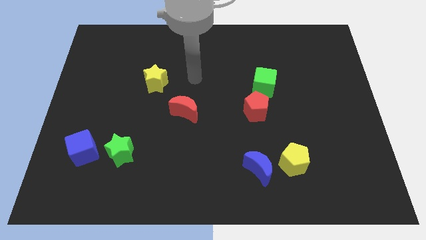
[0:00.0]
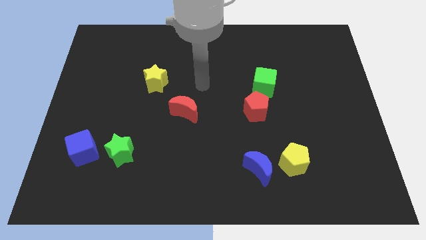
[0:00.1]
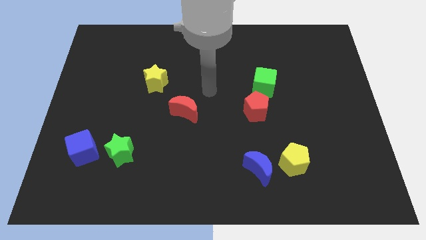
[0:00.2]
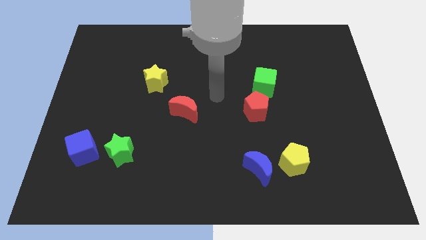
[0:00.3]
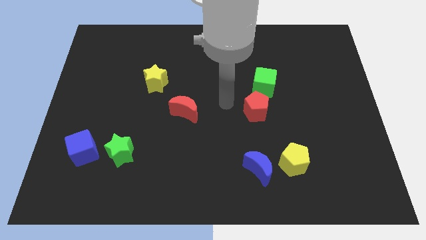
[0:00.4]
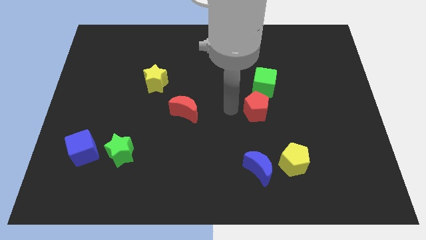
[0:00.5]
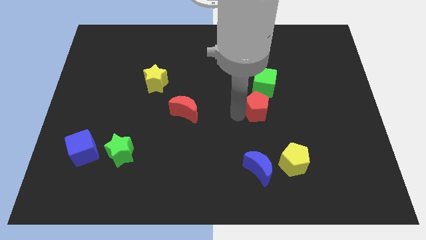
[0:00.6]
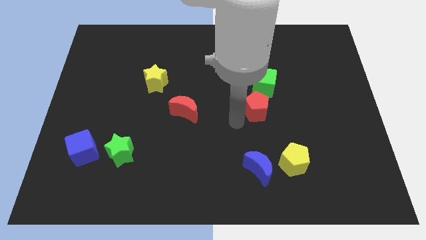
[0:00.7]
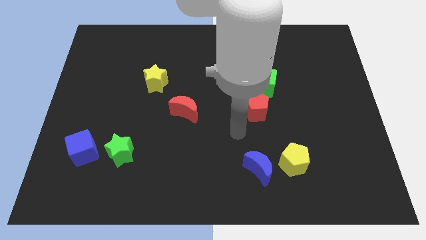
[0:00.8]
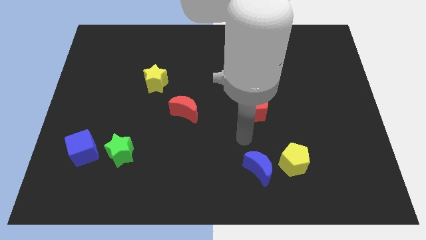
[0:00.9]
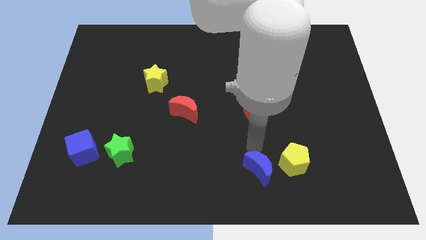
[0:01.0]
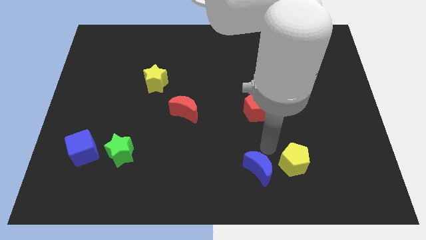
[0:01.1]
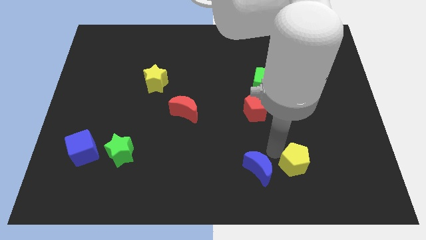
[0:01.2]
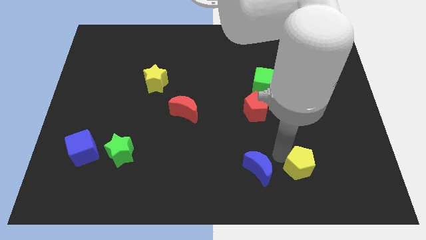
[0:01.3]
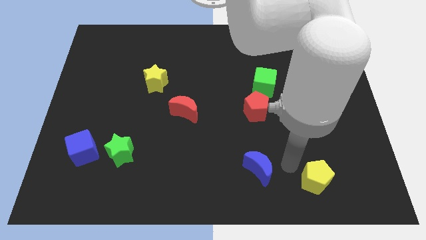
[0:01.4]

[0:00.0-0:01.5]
move the blue moon away from the yellow pentagon

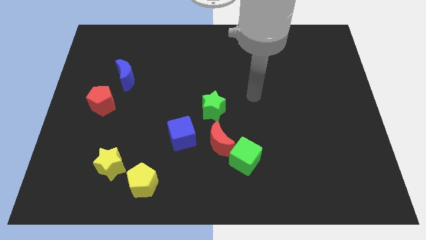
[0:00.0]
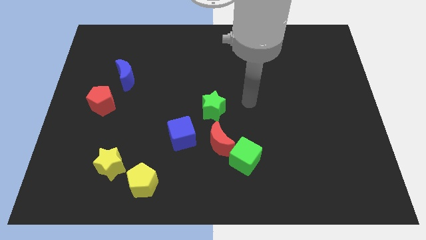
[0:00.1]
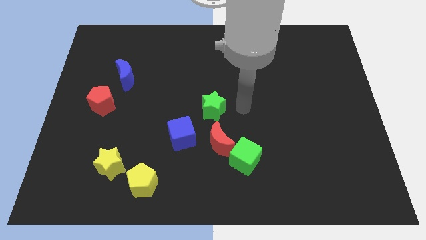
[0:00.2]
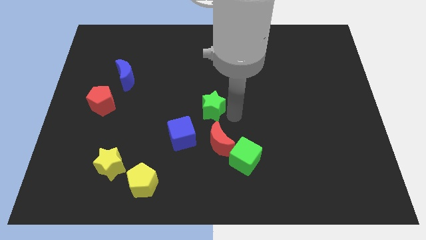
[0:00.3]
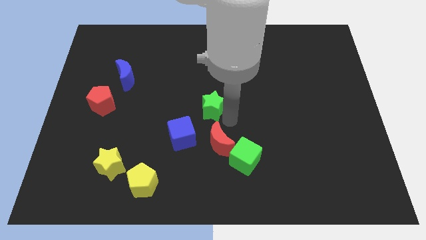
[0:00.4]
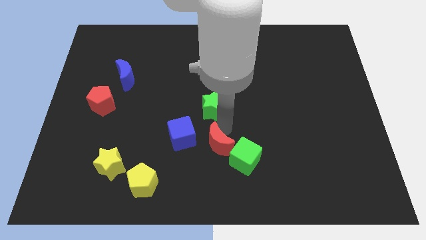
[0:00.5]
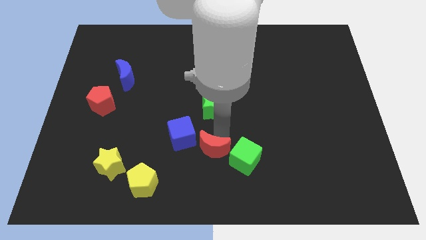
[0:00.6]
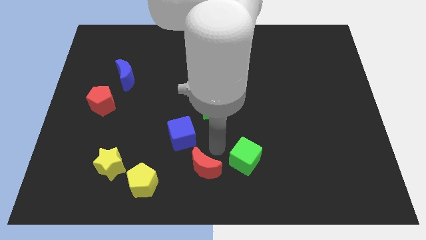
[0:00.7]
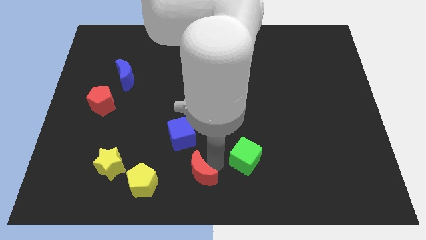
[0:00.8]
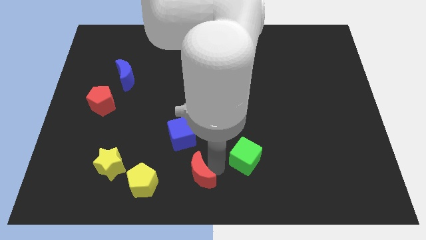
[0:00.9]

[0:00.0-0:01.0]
separate the green cube from the red moon

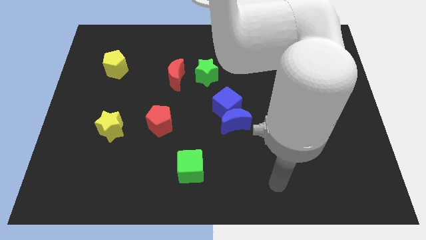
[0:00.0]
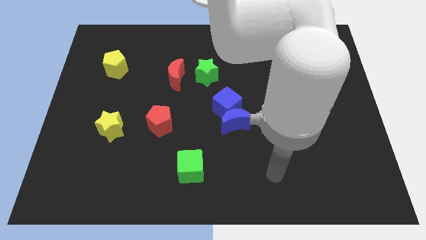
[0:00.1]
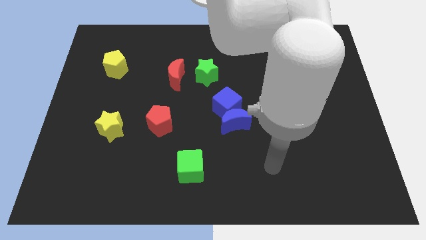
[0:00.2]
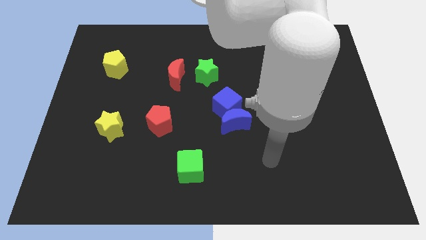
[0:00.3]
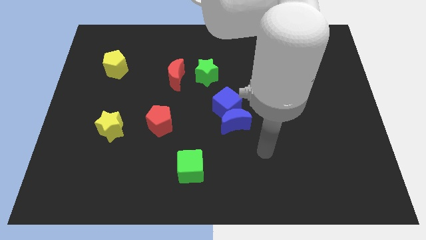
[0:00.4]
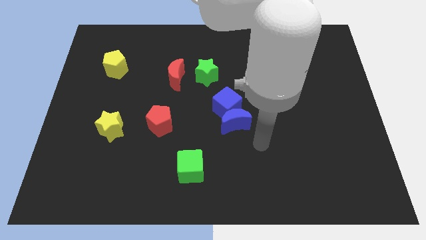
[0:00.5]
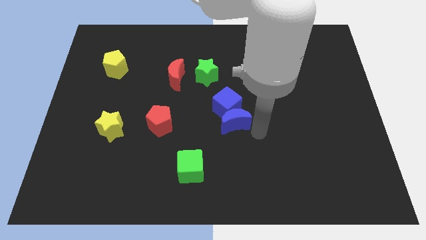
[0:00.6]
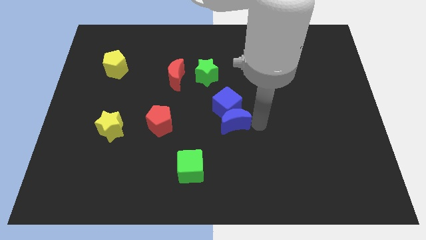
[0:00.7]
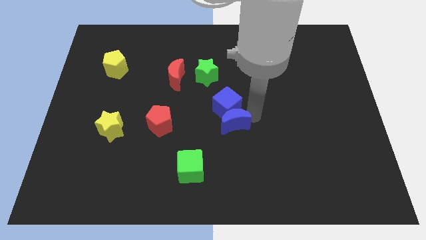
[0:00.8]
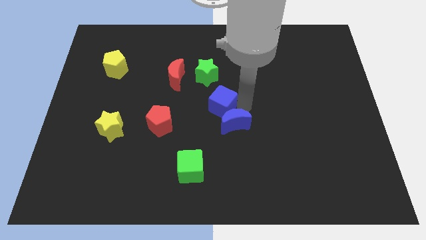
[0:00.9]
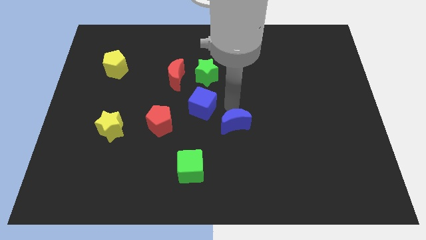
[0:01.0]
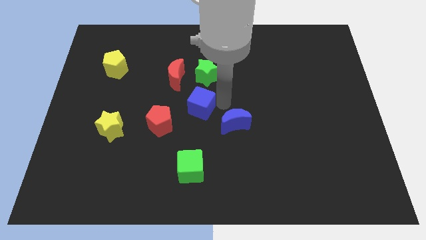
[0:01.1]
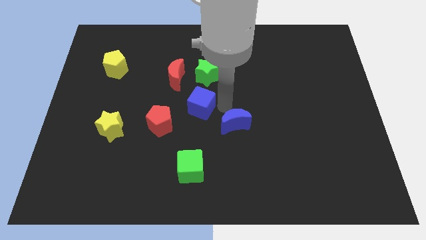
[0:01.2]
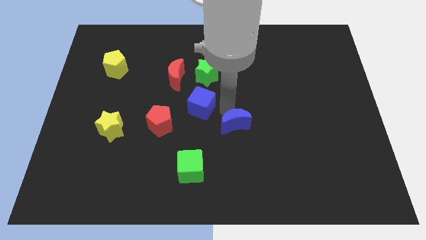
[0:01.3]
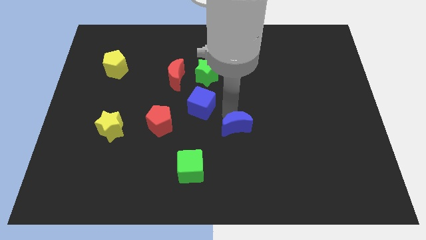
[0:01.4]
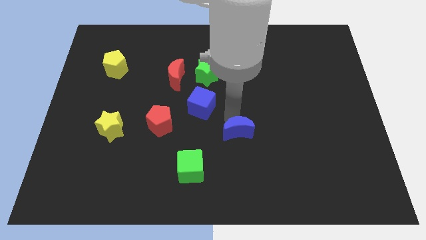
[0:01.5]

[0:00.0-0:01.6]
move the blue moon away from the blue cube

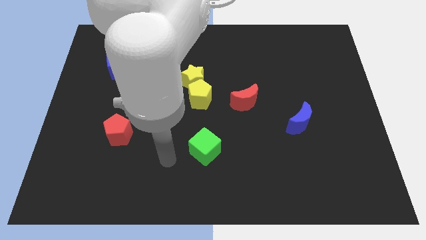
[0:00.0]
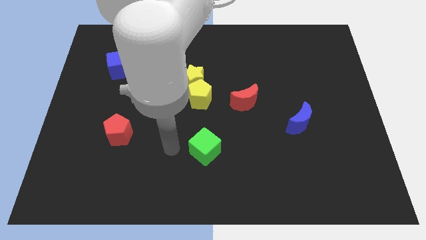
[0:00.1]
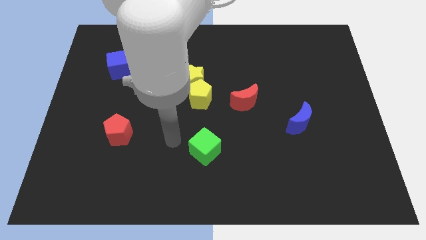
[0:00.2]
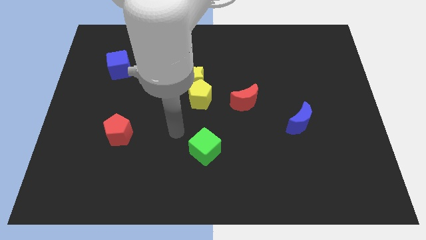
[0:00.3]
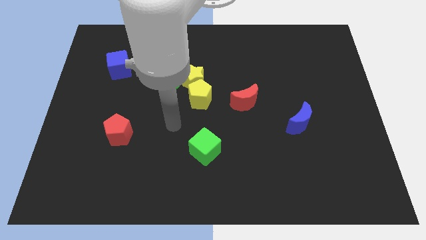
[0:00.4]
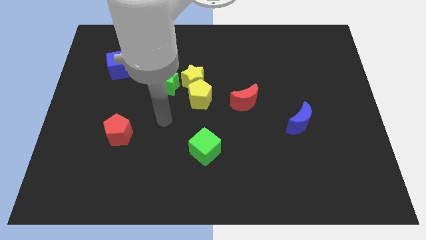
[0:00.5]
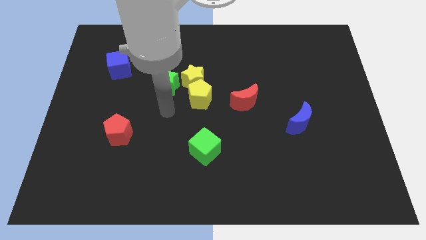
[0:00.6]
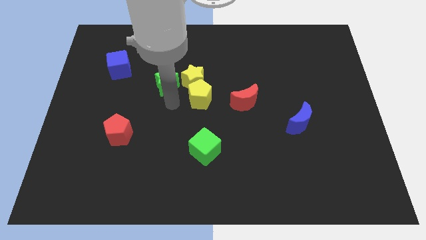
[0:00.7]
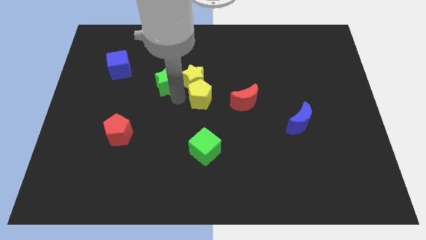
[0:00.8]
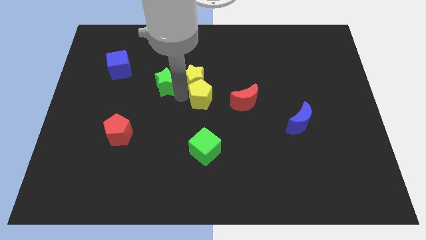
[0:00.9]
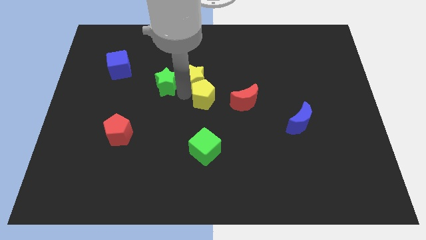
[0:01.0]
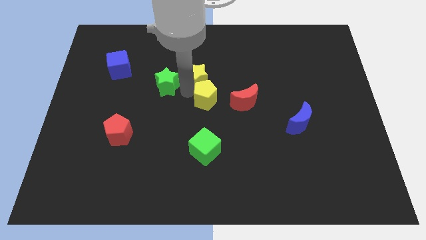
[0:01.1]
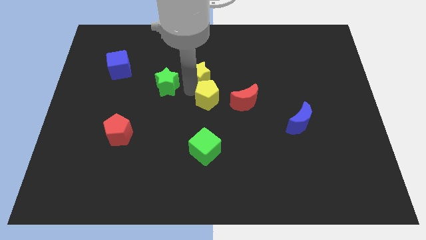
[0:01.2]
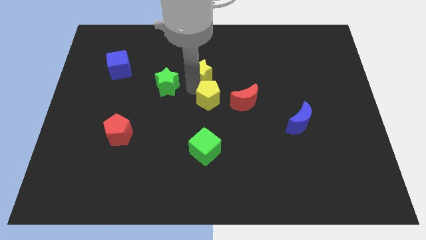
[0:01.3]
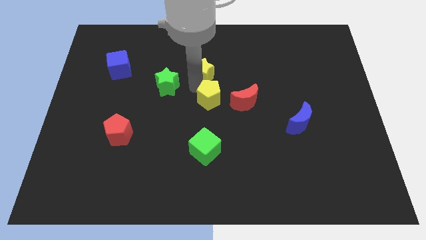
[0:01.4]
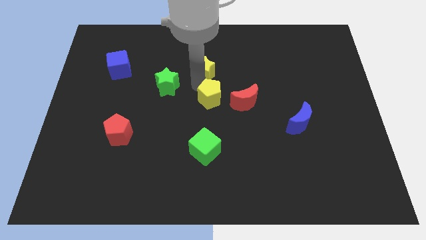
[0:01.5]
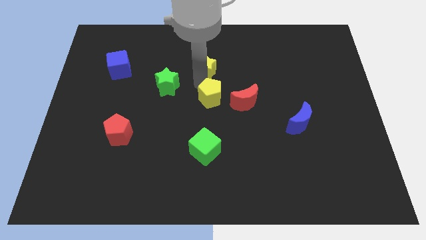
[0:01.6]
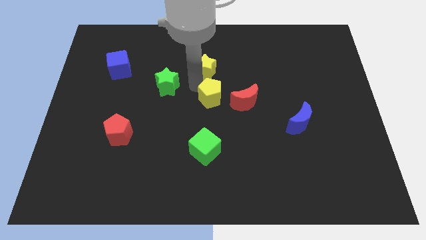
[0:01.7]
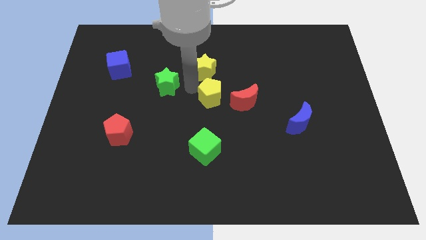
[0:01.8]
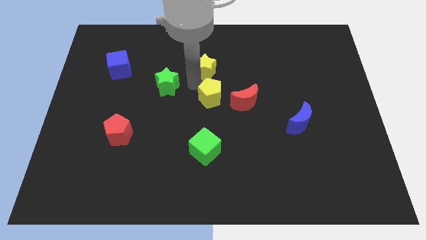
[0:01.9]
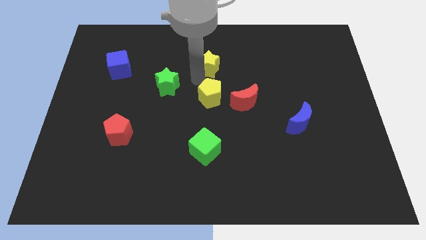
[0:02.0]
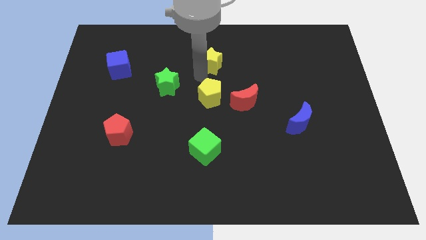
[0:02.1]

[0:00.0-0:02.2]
separate the yellow star from the yellow pentagon and green star

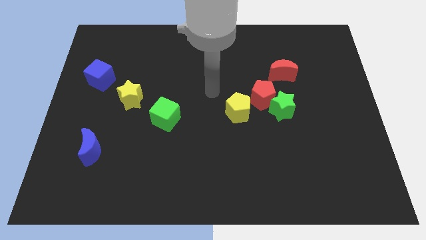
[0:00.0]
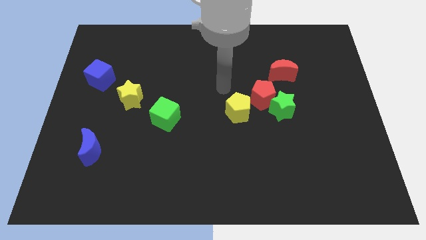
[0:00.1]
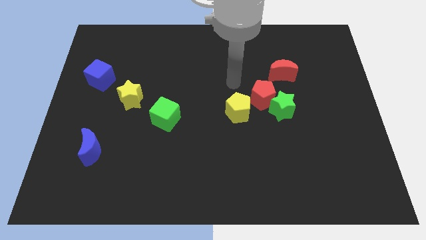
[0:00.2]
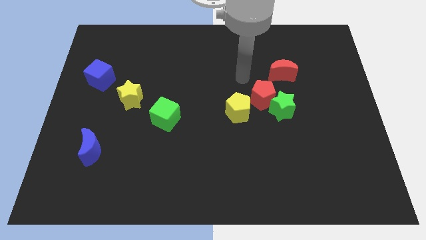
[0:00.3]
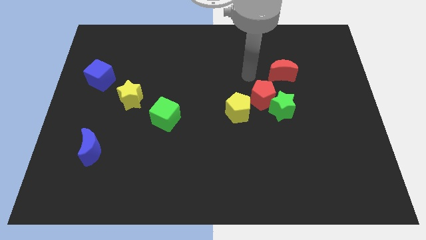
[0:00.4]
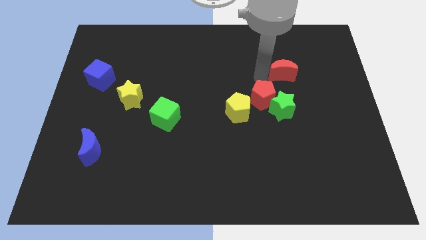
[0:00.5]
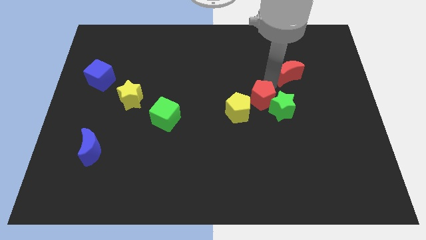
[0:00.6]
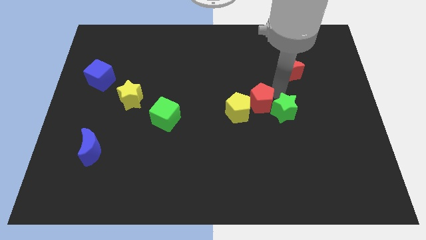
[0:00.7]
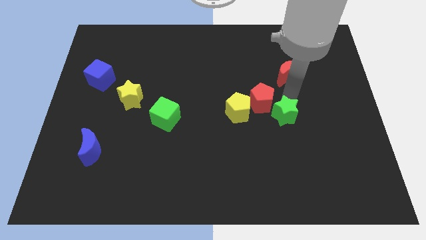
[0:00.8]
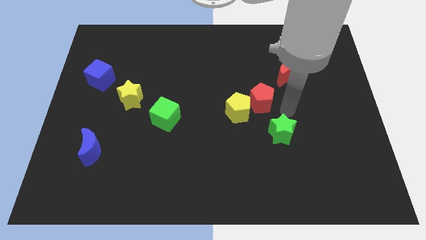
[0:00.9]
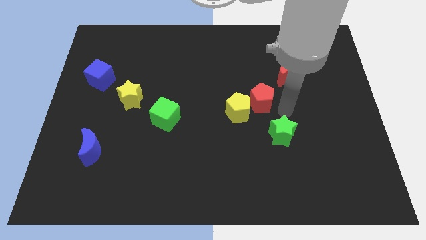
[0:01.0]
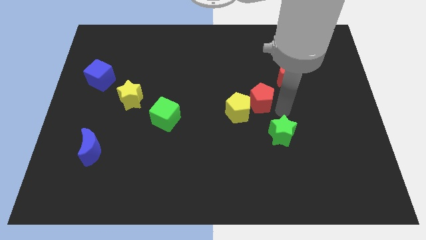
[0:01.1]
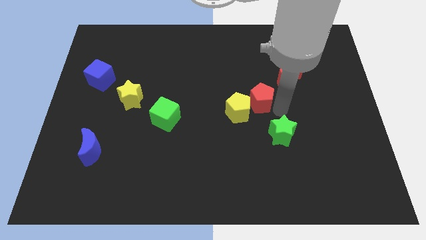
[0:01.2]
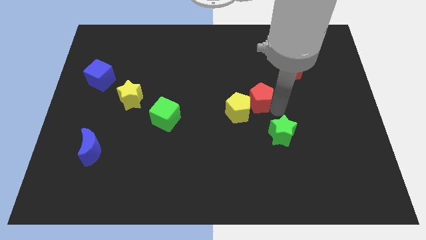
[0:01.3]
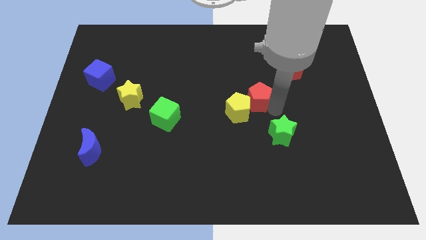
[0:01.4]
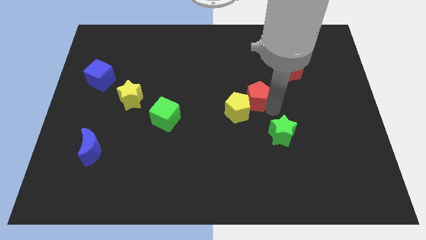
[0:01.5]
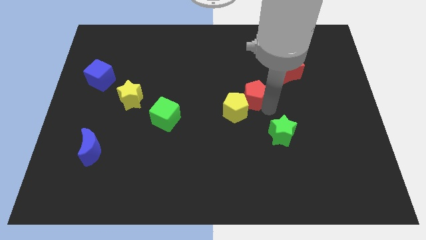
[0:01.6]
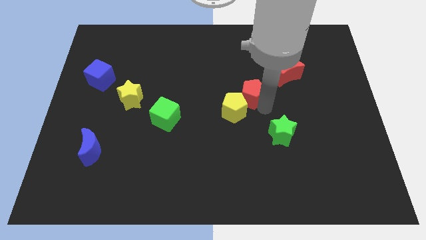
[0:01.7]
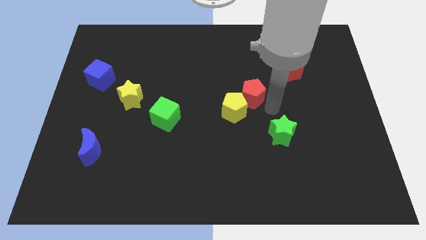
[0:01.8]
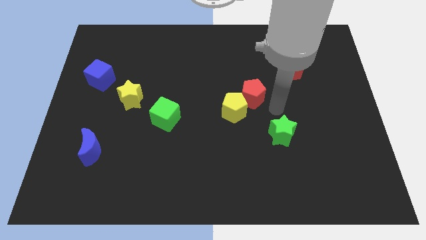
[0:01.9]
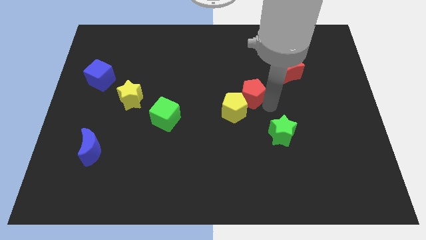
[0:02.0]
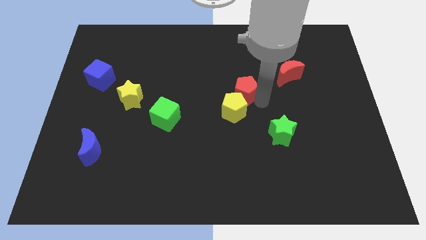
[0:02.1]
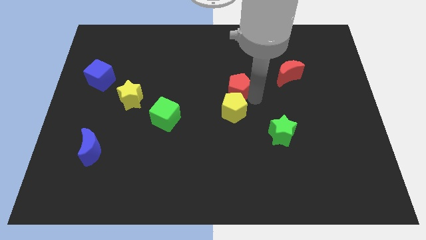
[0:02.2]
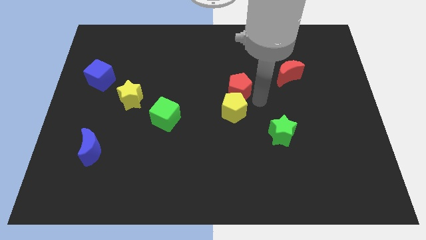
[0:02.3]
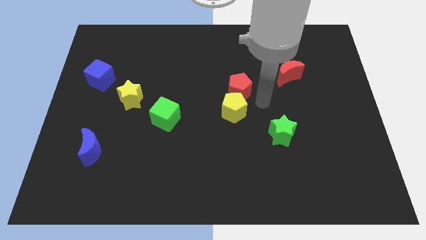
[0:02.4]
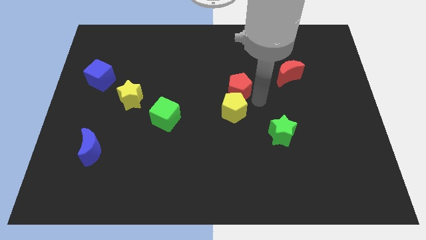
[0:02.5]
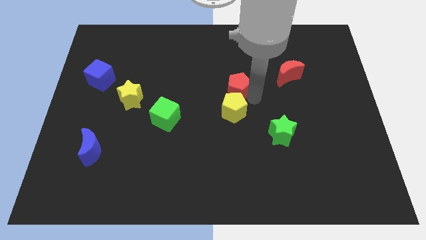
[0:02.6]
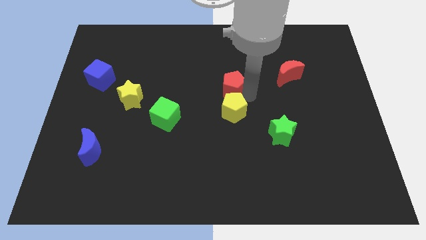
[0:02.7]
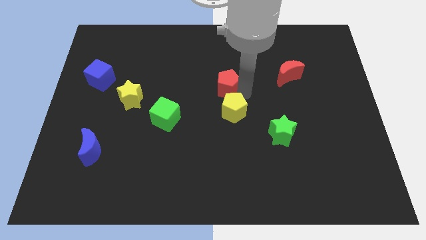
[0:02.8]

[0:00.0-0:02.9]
move the red pentagon away from the clump
